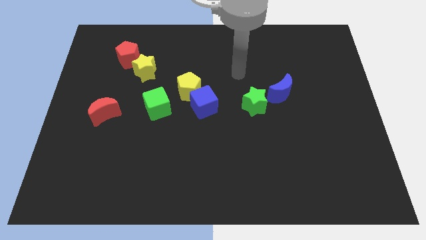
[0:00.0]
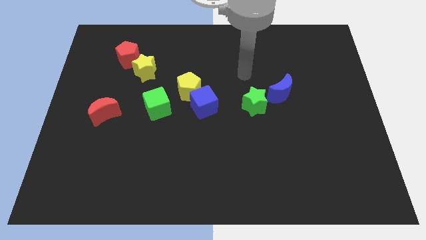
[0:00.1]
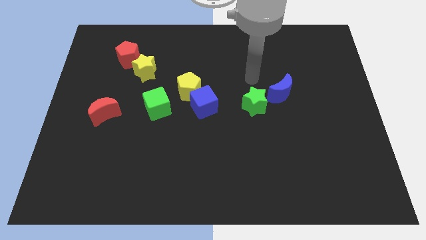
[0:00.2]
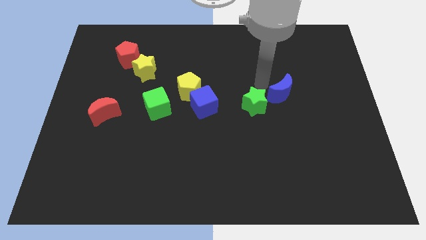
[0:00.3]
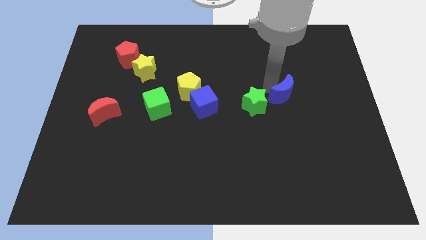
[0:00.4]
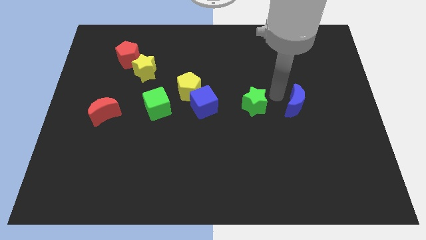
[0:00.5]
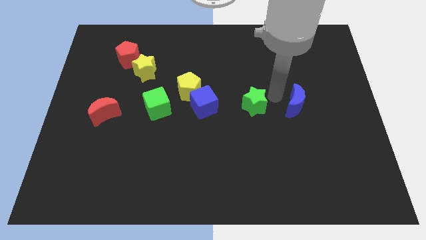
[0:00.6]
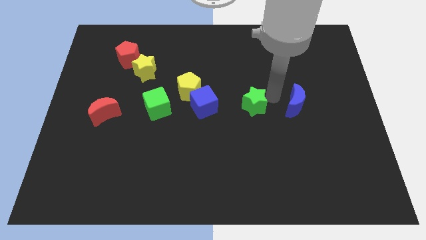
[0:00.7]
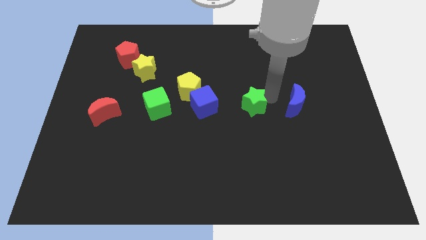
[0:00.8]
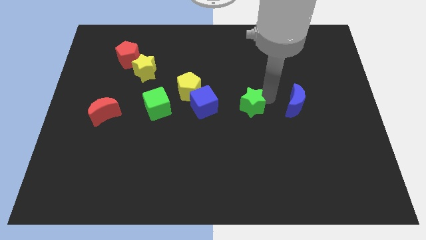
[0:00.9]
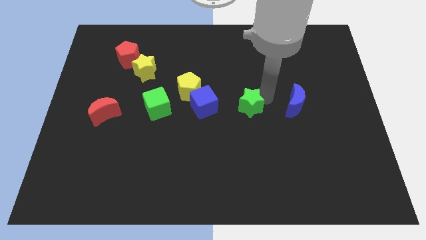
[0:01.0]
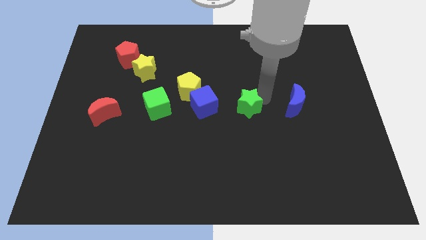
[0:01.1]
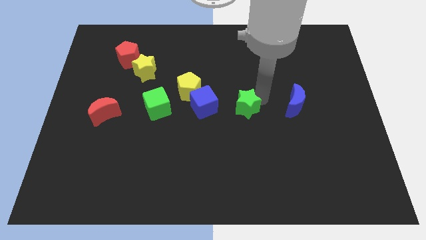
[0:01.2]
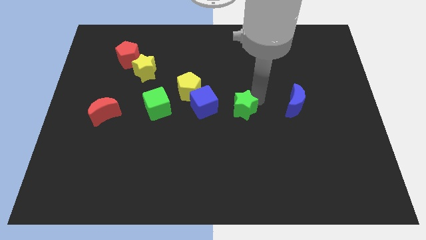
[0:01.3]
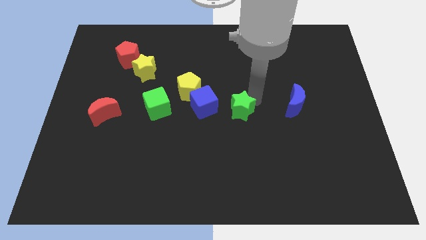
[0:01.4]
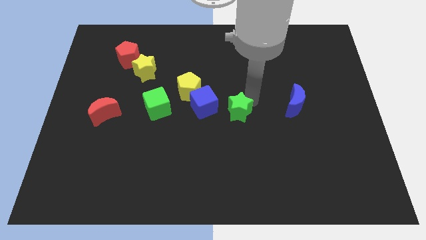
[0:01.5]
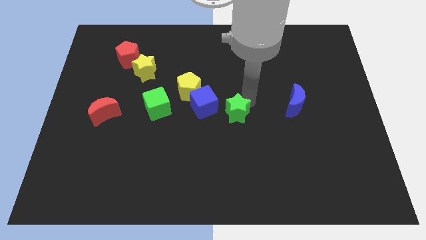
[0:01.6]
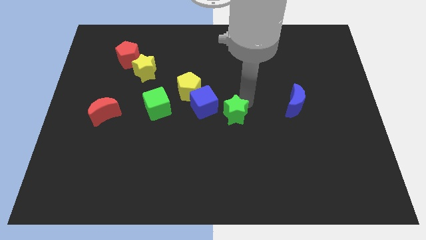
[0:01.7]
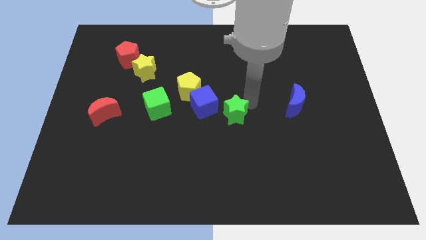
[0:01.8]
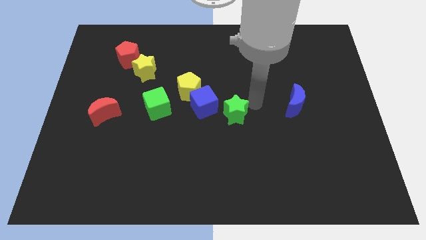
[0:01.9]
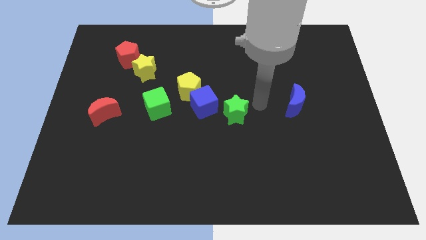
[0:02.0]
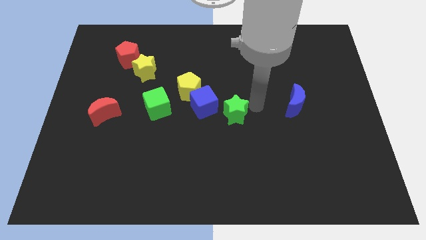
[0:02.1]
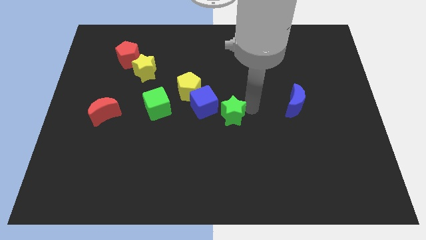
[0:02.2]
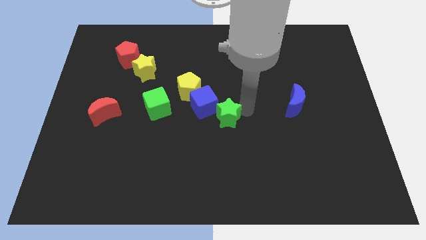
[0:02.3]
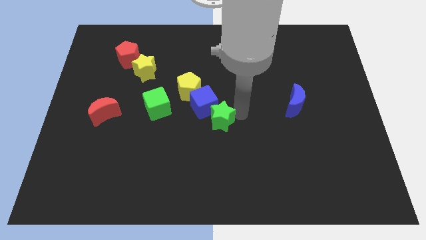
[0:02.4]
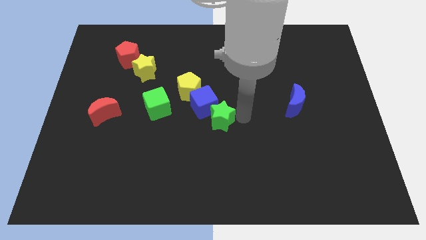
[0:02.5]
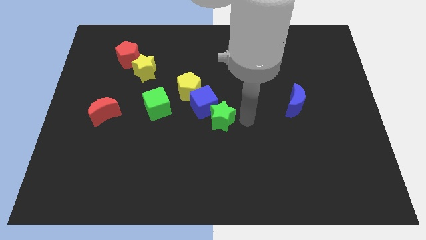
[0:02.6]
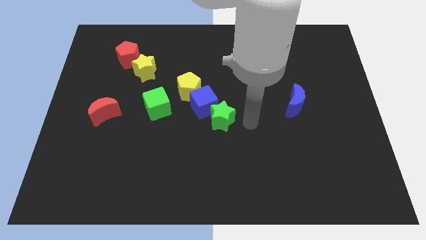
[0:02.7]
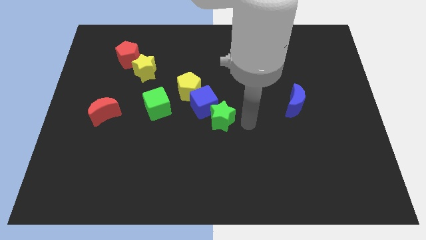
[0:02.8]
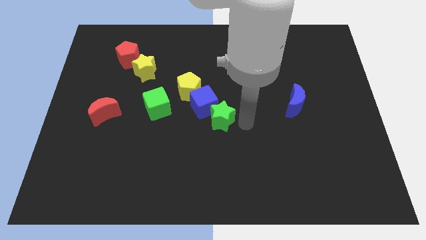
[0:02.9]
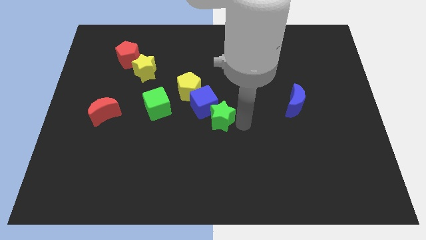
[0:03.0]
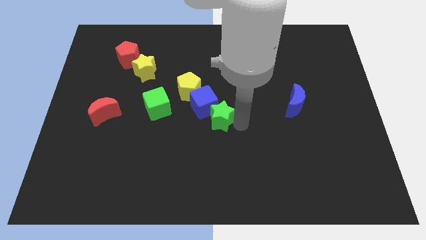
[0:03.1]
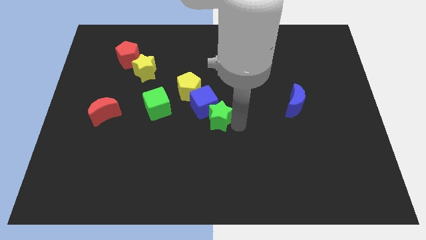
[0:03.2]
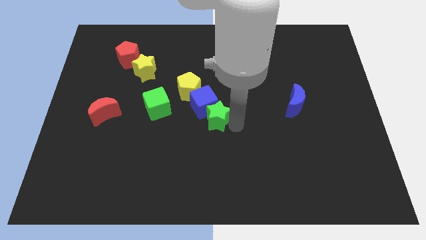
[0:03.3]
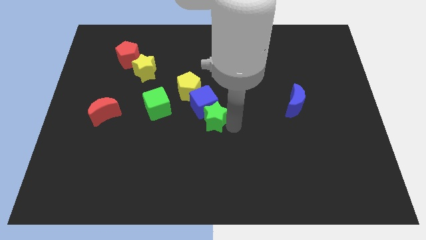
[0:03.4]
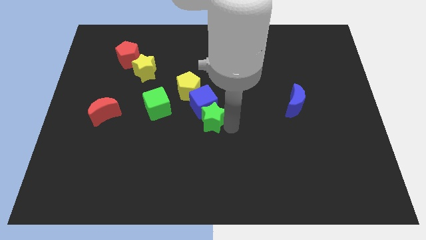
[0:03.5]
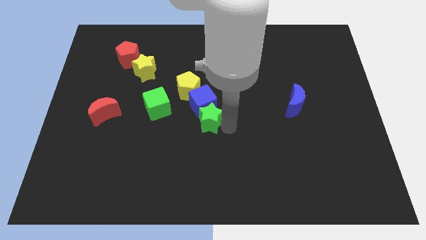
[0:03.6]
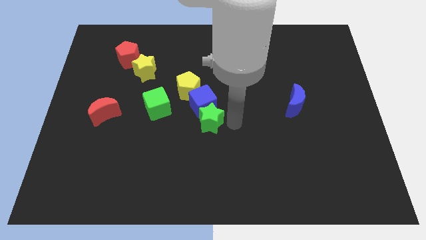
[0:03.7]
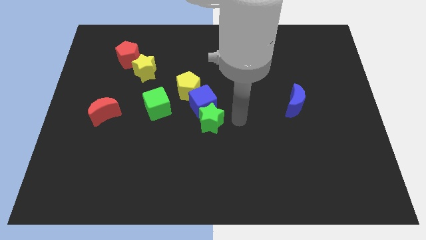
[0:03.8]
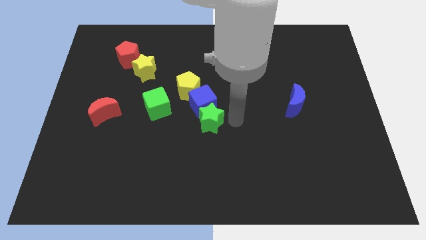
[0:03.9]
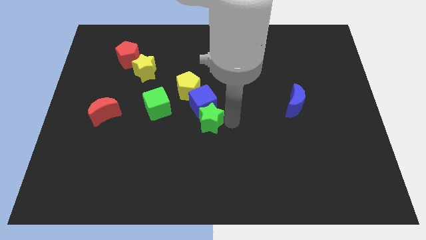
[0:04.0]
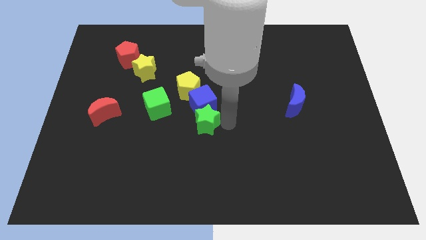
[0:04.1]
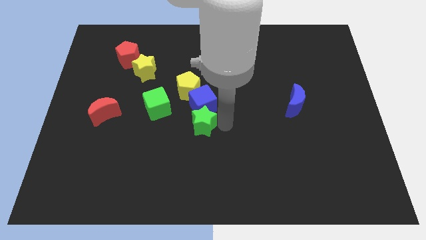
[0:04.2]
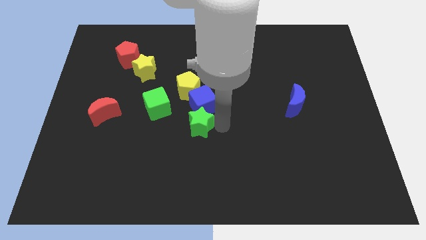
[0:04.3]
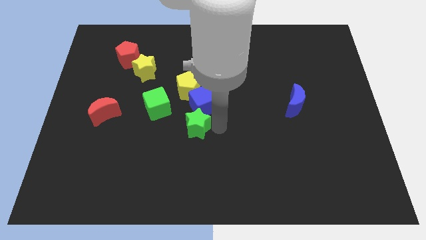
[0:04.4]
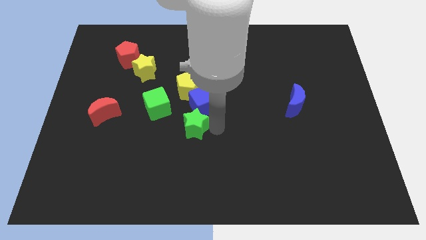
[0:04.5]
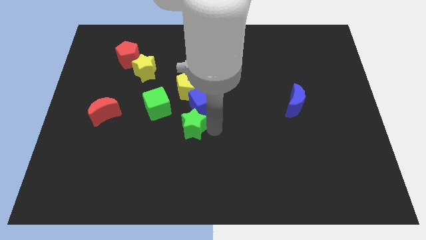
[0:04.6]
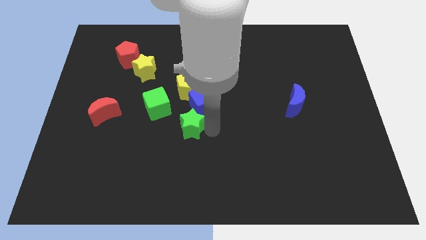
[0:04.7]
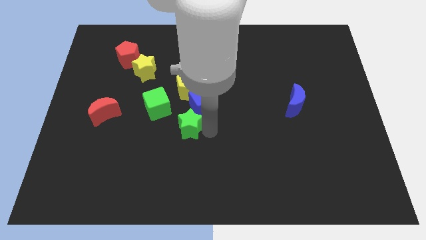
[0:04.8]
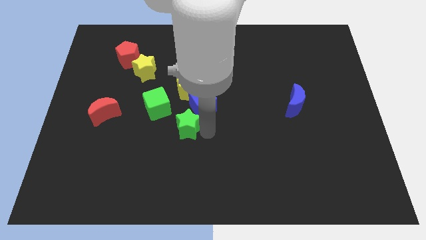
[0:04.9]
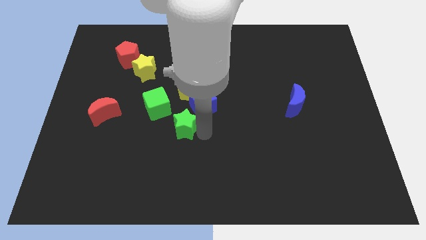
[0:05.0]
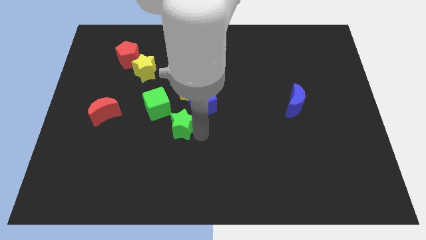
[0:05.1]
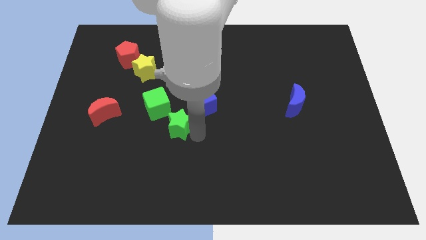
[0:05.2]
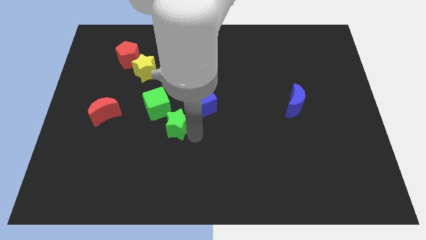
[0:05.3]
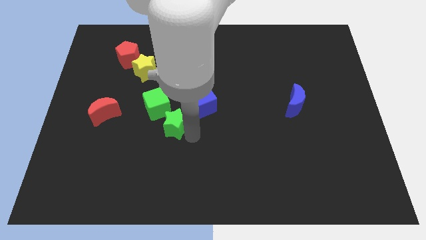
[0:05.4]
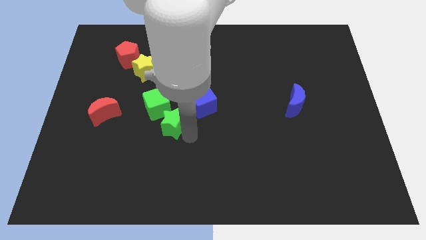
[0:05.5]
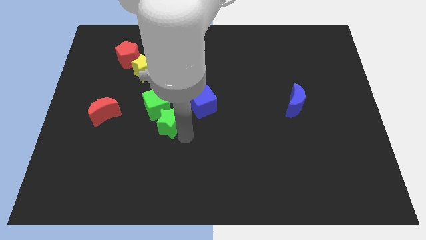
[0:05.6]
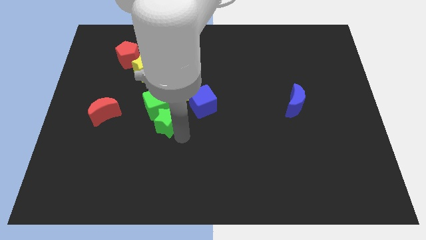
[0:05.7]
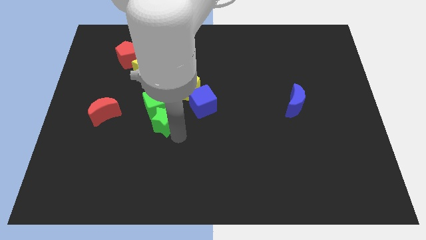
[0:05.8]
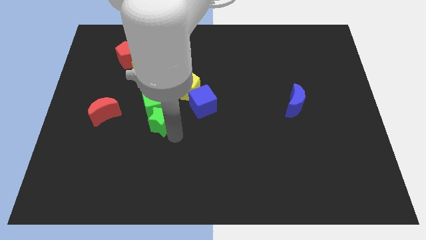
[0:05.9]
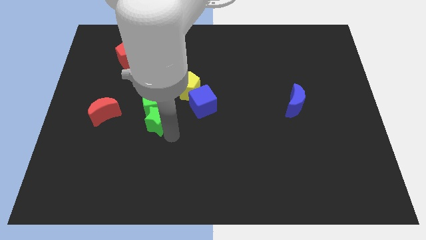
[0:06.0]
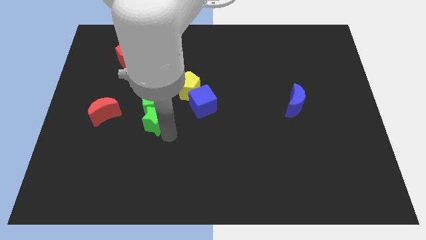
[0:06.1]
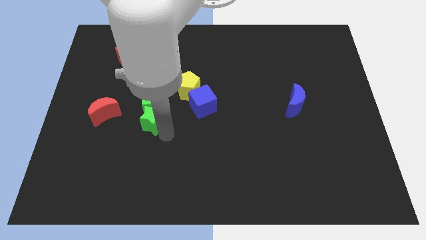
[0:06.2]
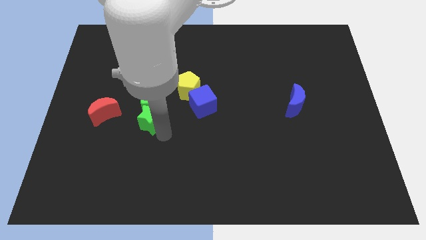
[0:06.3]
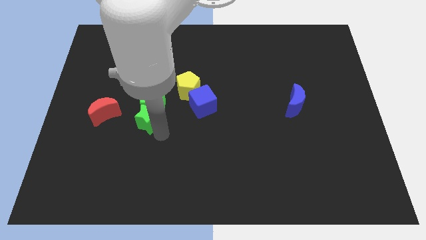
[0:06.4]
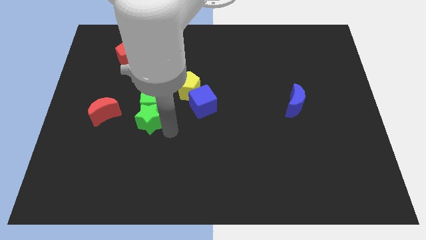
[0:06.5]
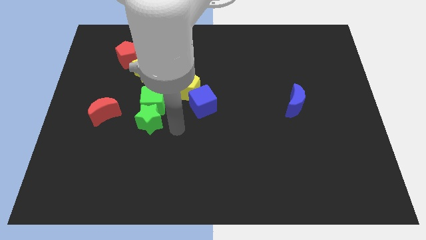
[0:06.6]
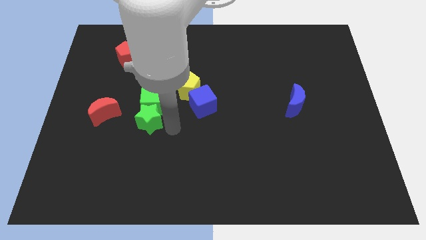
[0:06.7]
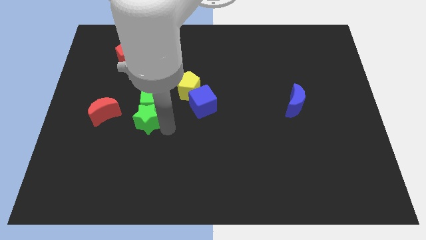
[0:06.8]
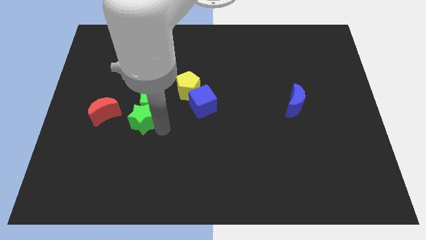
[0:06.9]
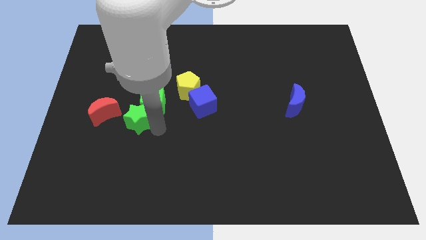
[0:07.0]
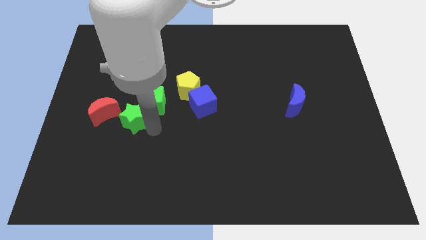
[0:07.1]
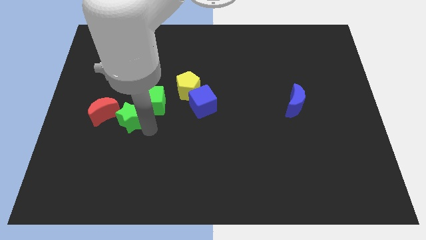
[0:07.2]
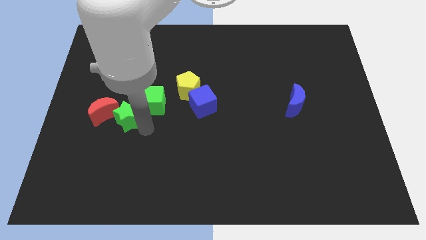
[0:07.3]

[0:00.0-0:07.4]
move the green star to the red moon
